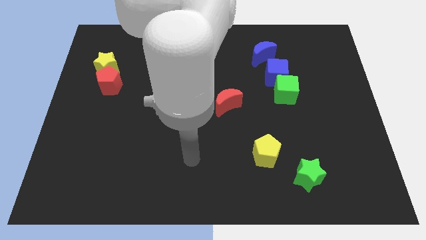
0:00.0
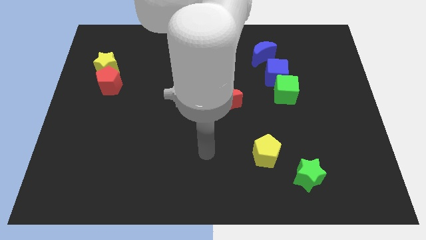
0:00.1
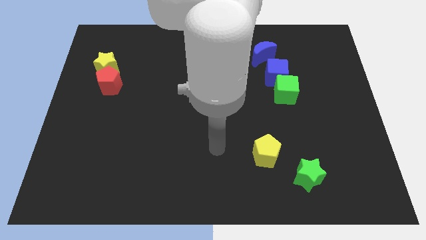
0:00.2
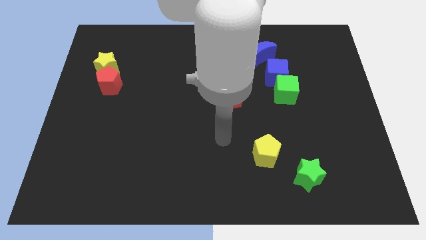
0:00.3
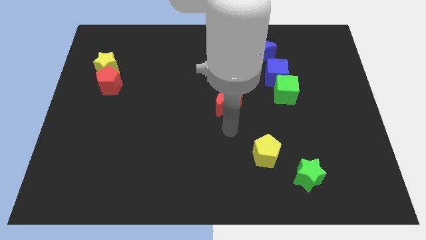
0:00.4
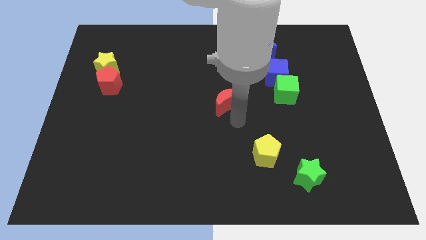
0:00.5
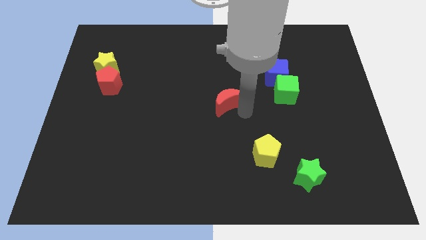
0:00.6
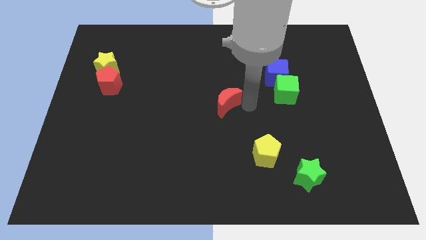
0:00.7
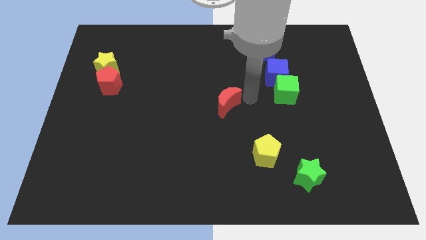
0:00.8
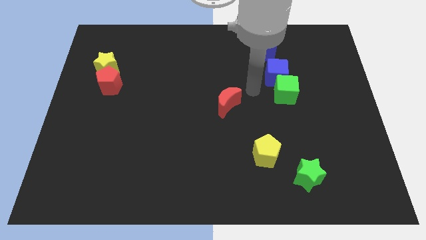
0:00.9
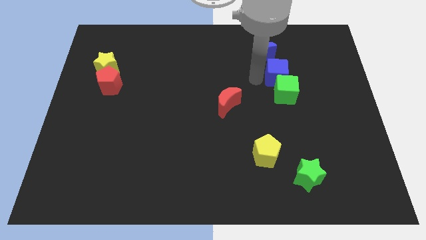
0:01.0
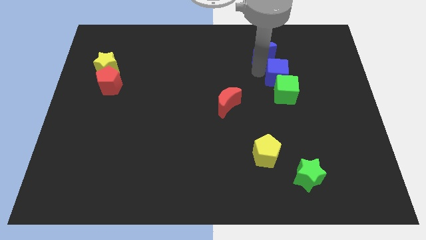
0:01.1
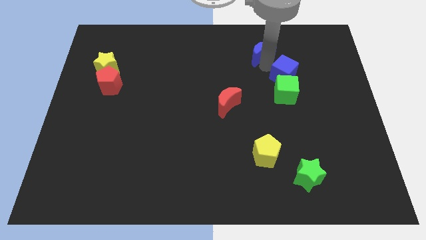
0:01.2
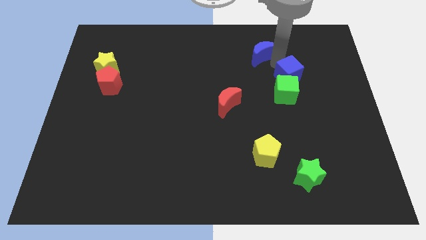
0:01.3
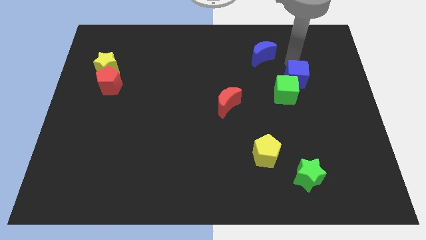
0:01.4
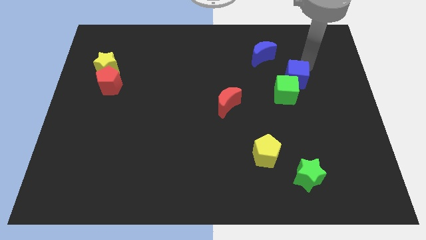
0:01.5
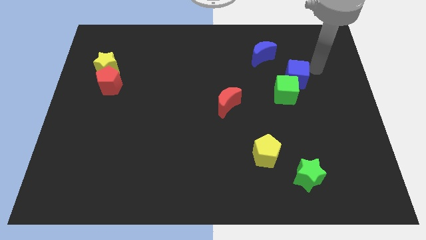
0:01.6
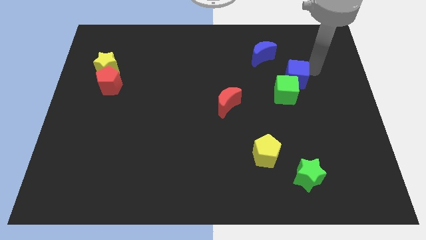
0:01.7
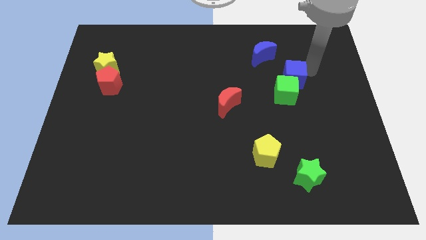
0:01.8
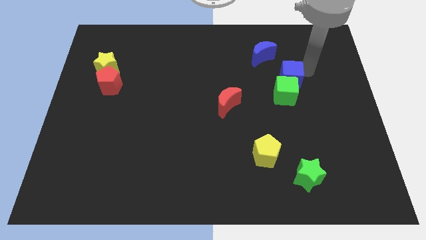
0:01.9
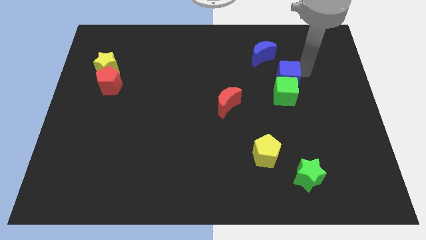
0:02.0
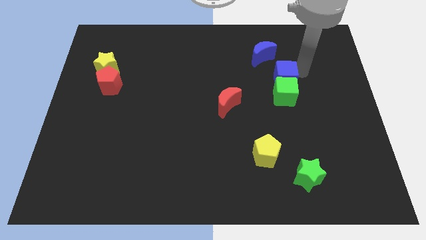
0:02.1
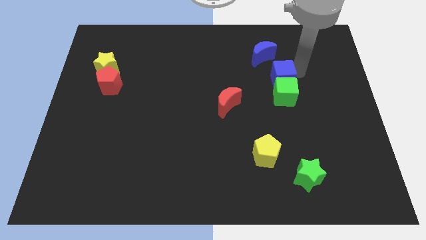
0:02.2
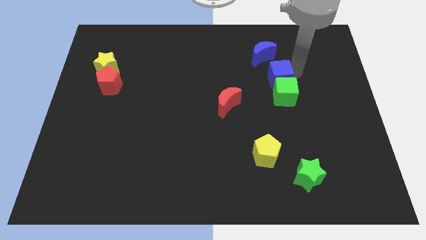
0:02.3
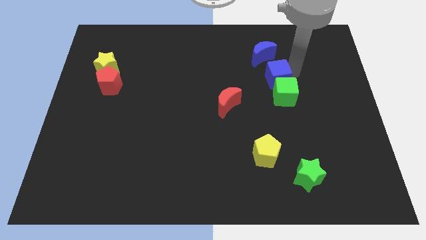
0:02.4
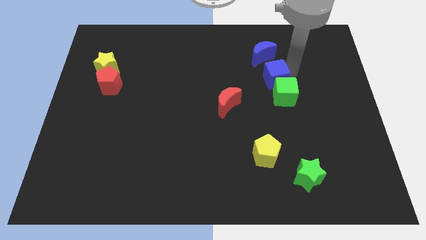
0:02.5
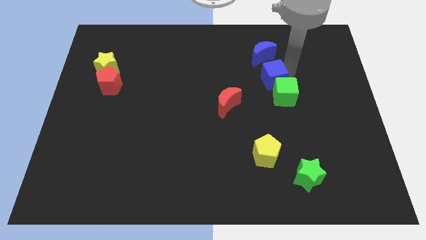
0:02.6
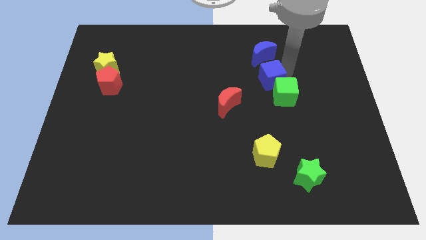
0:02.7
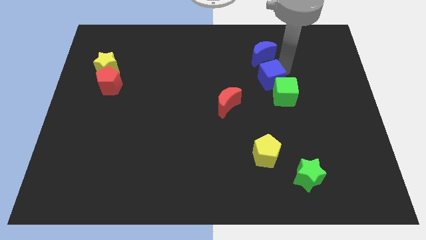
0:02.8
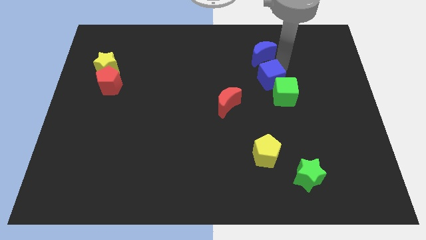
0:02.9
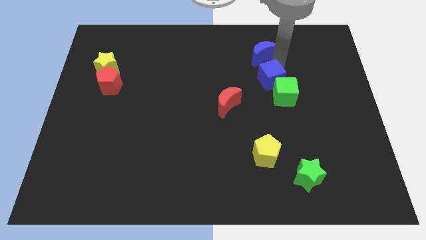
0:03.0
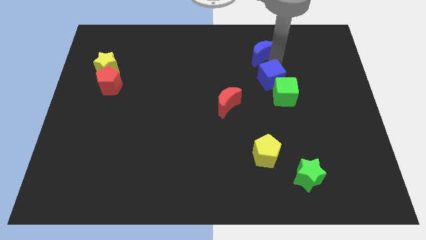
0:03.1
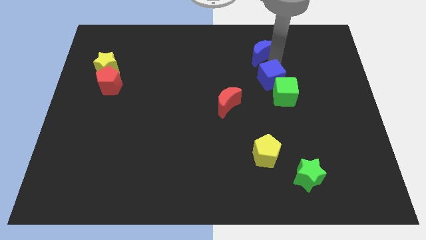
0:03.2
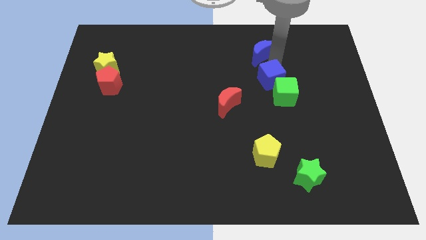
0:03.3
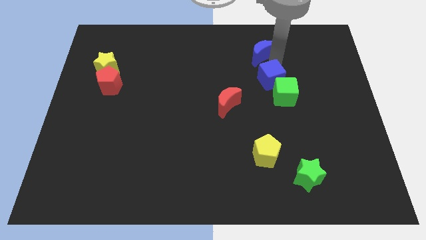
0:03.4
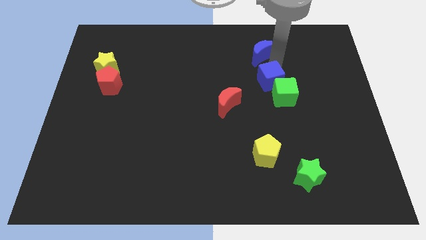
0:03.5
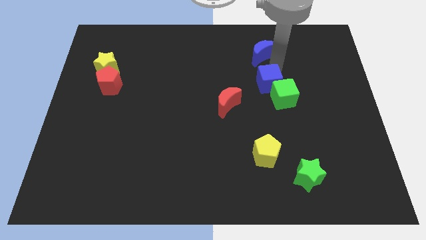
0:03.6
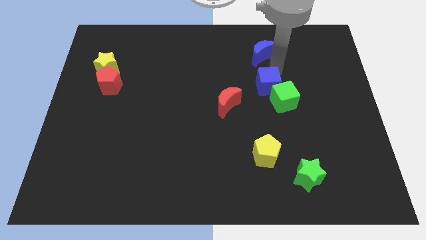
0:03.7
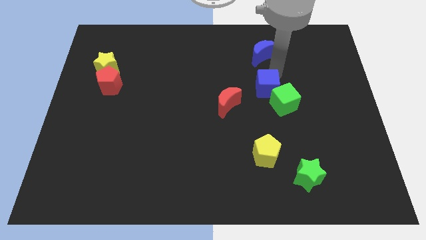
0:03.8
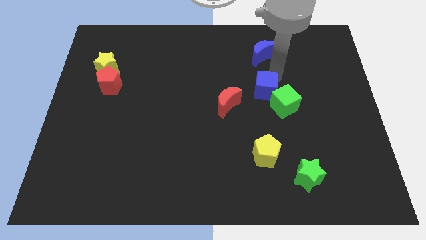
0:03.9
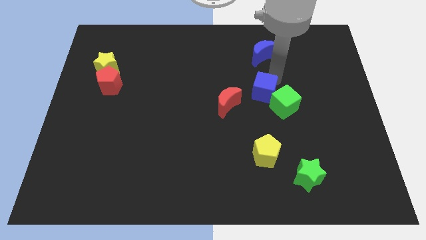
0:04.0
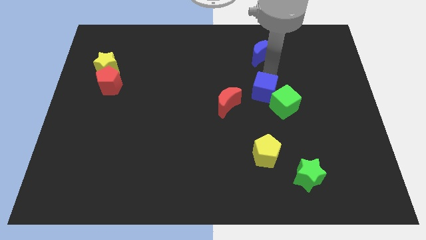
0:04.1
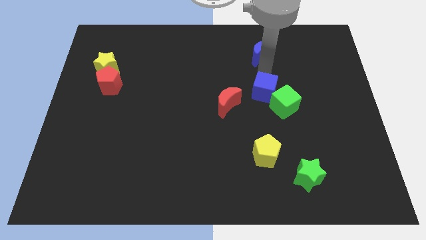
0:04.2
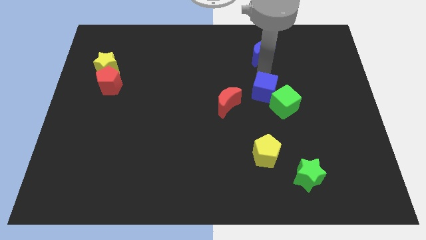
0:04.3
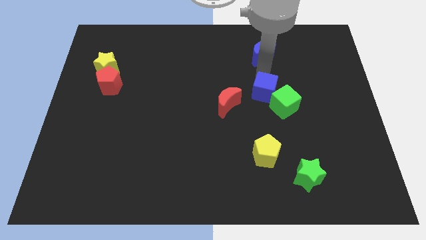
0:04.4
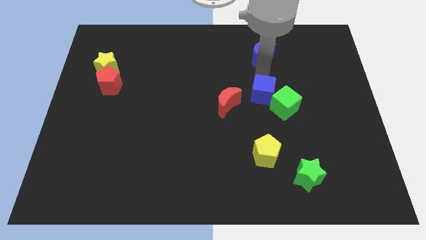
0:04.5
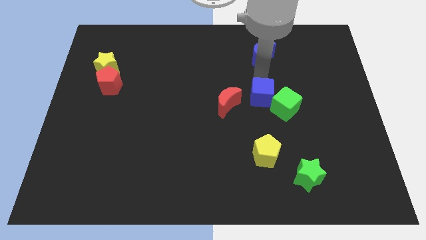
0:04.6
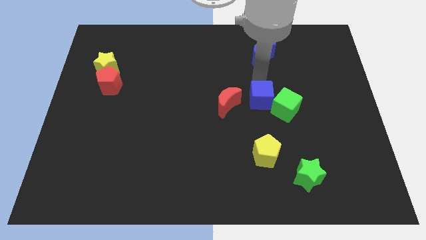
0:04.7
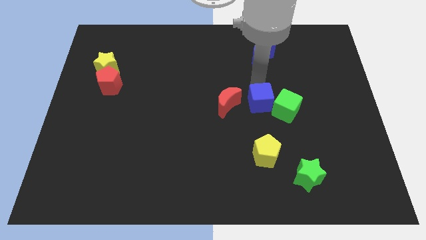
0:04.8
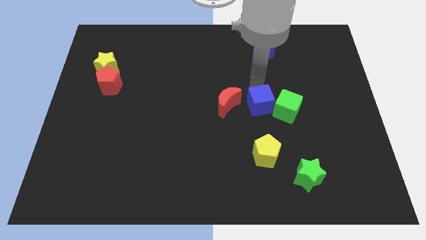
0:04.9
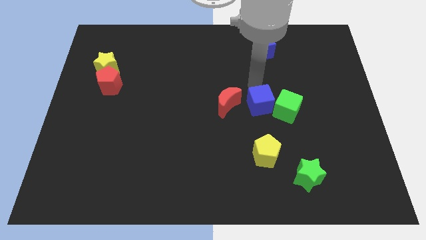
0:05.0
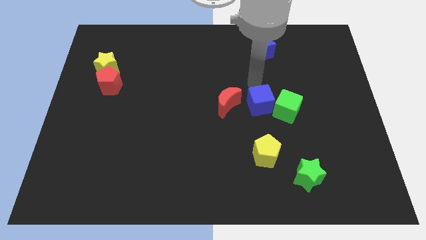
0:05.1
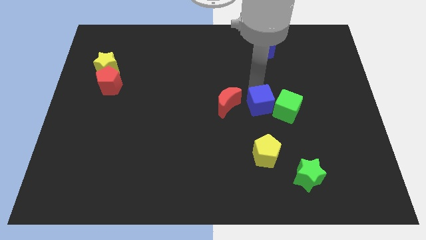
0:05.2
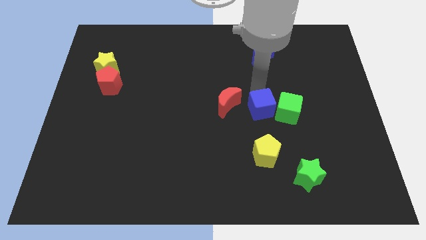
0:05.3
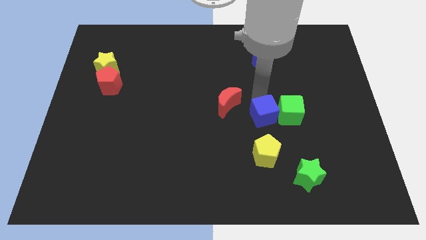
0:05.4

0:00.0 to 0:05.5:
put the blue cube to the bottom left side of the green cube

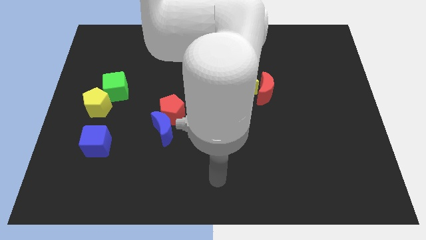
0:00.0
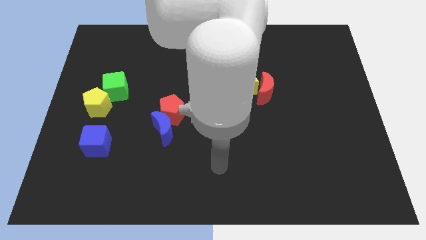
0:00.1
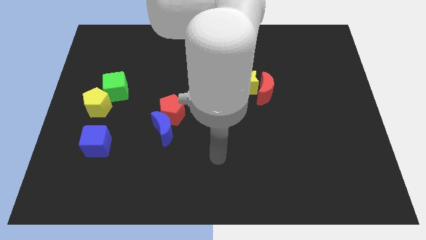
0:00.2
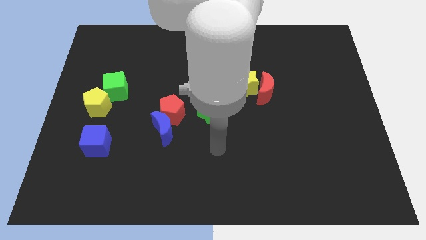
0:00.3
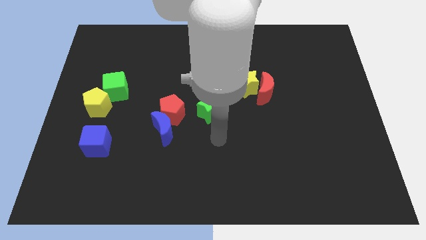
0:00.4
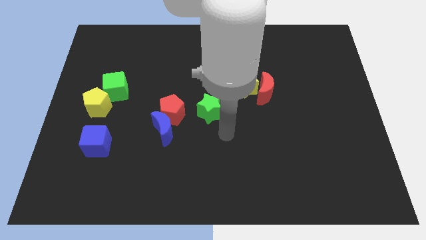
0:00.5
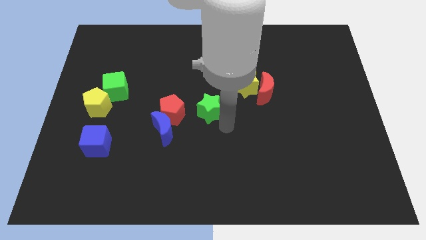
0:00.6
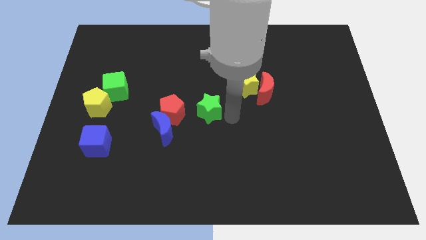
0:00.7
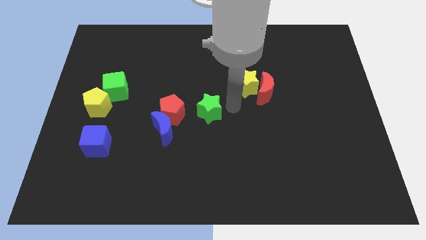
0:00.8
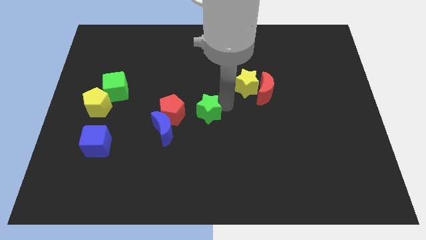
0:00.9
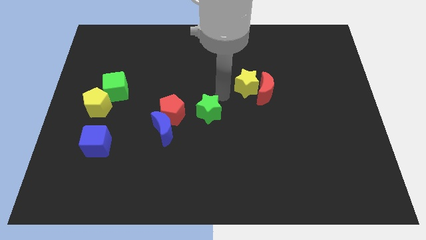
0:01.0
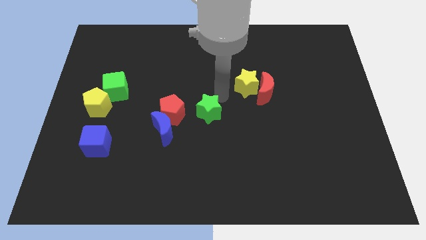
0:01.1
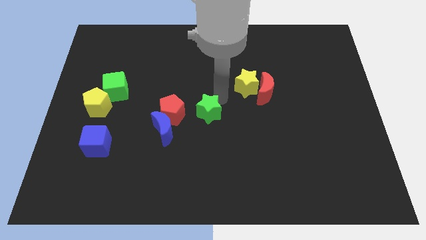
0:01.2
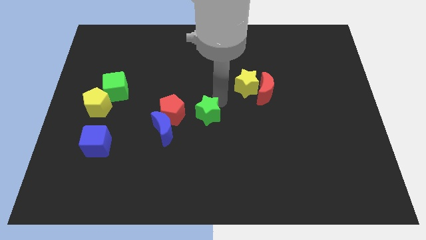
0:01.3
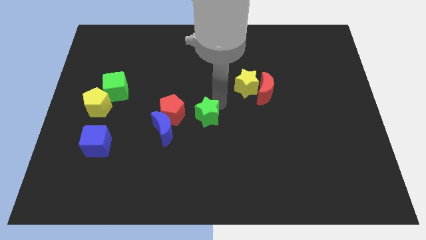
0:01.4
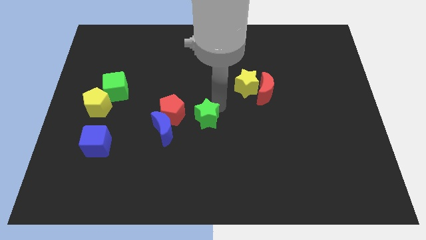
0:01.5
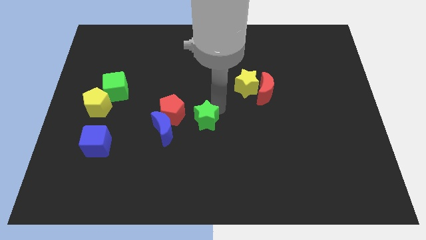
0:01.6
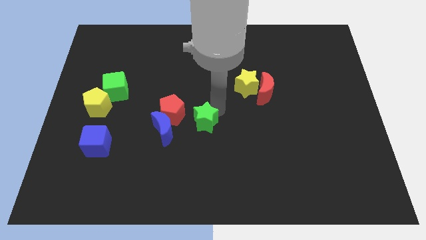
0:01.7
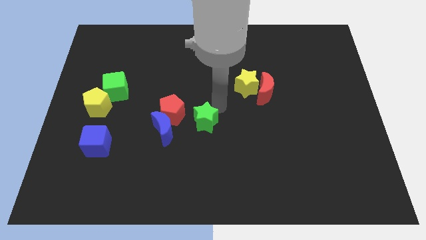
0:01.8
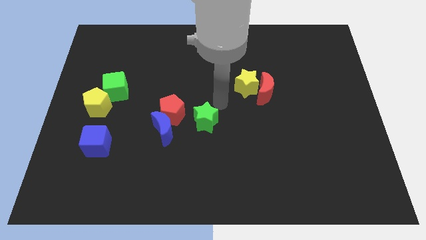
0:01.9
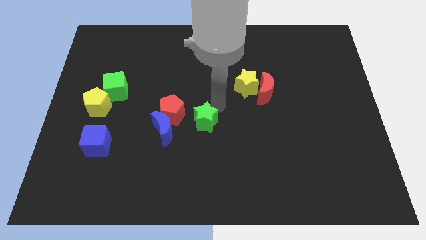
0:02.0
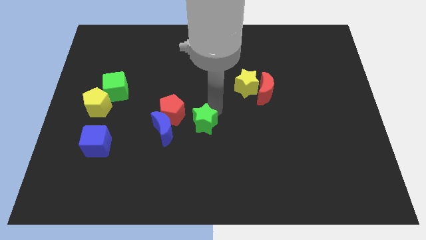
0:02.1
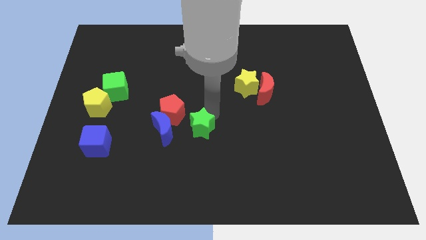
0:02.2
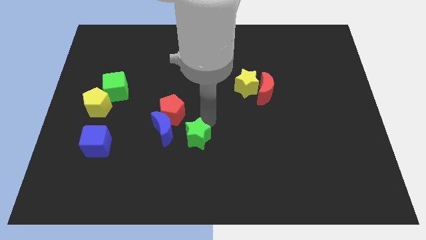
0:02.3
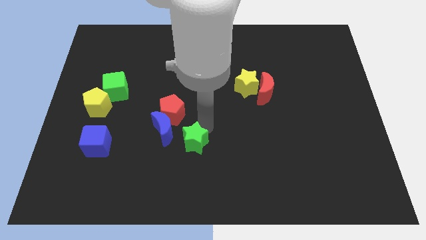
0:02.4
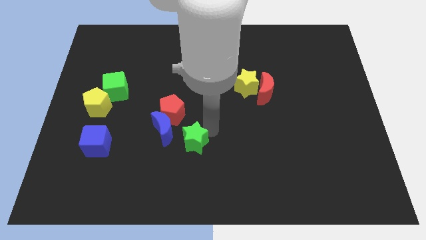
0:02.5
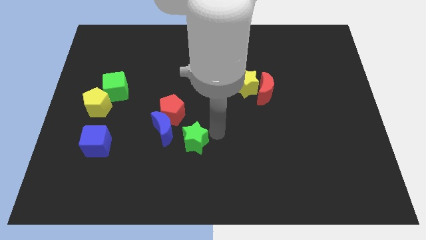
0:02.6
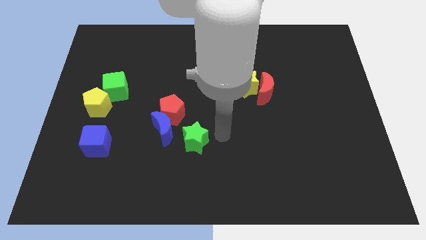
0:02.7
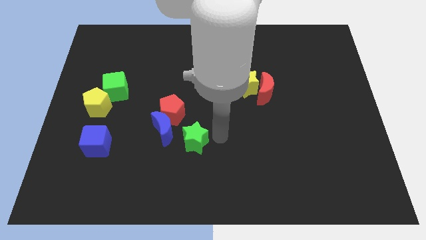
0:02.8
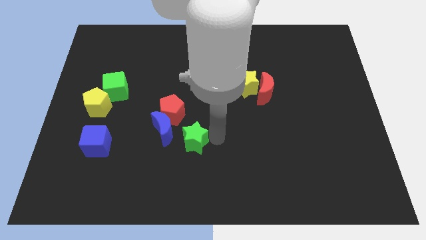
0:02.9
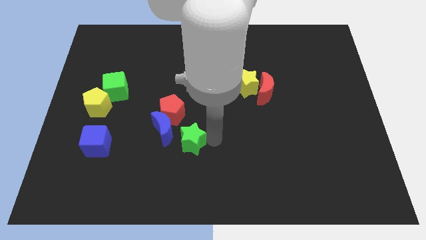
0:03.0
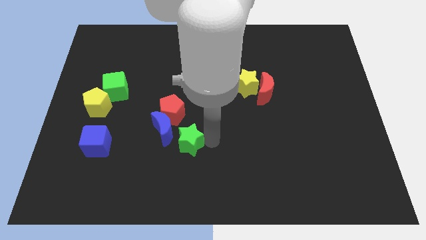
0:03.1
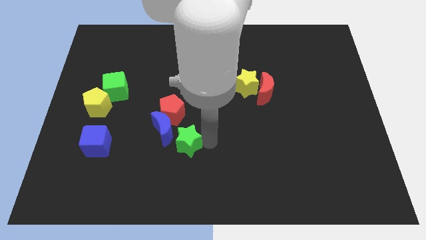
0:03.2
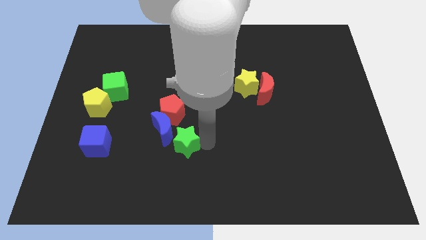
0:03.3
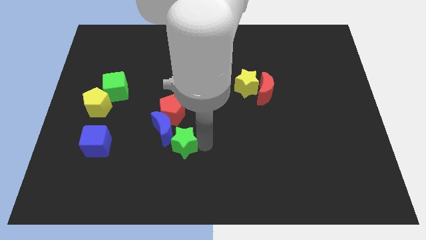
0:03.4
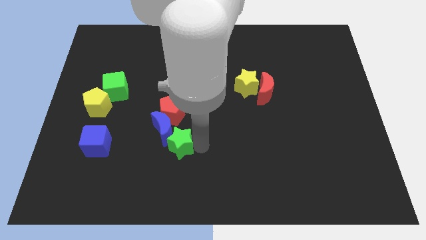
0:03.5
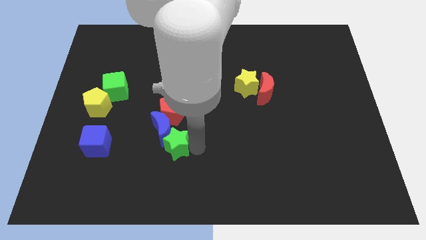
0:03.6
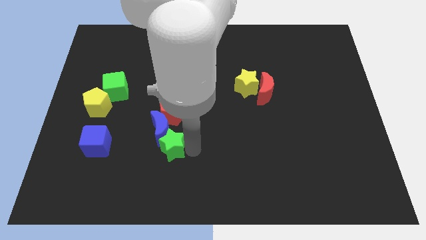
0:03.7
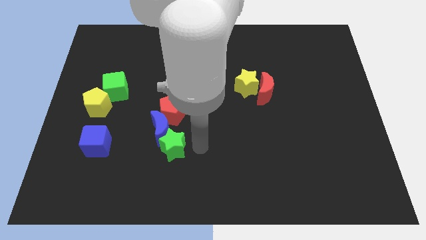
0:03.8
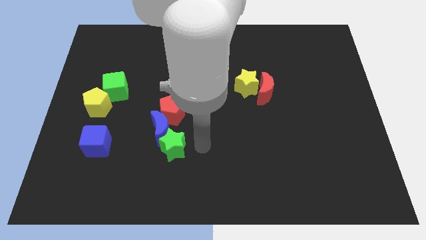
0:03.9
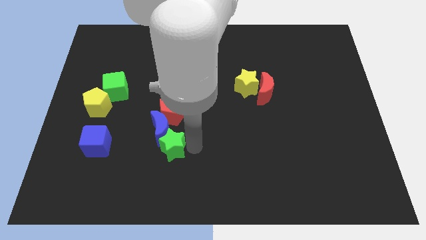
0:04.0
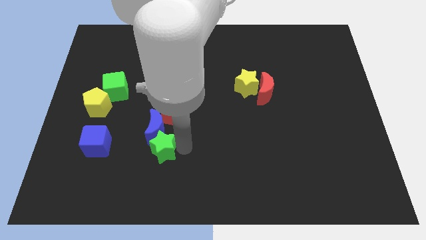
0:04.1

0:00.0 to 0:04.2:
push the green star to the bottom left of the blue moon
